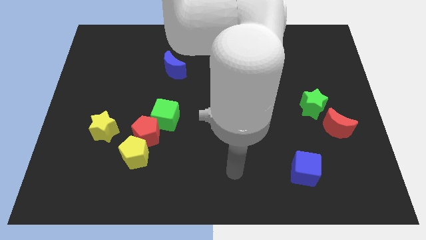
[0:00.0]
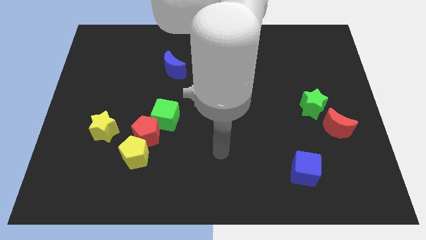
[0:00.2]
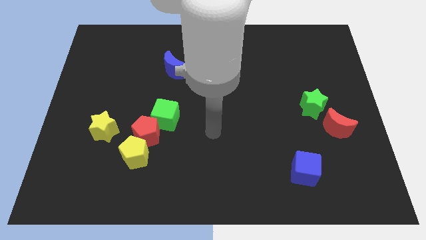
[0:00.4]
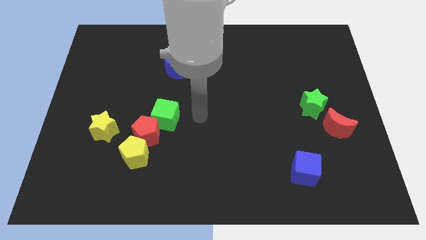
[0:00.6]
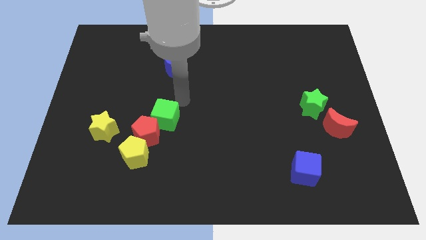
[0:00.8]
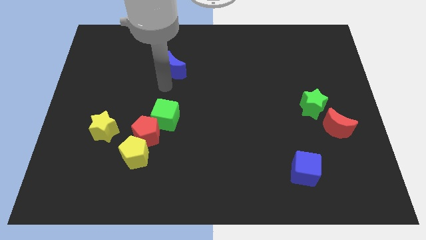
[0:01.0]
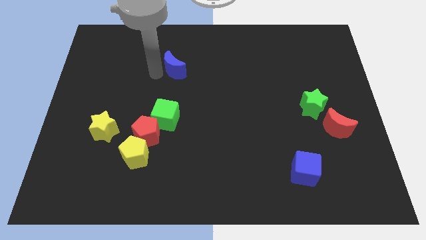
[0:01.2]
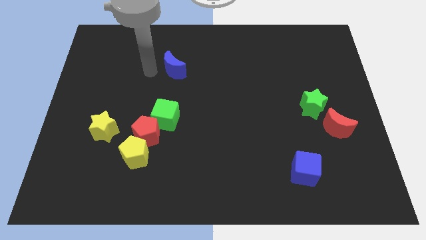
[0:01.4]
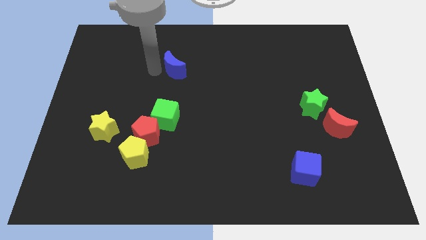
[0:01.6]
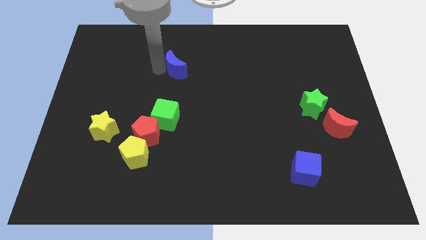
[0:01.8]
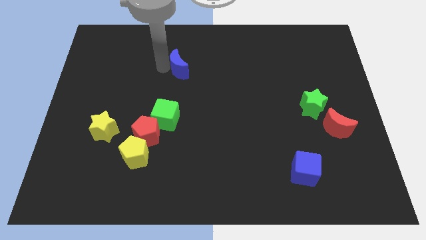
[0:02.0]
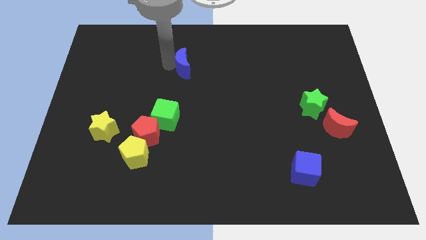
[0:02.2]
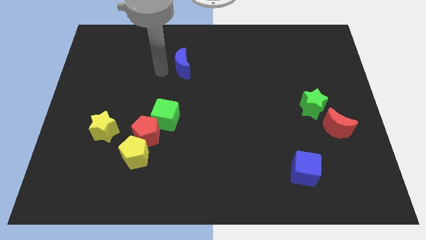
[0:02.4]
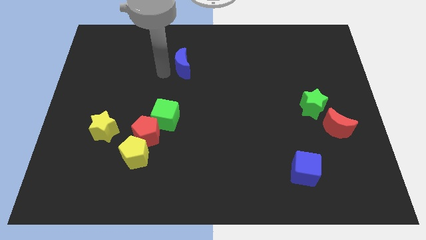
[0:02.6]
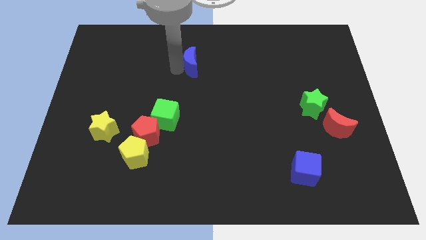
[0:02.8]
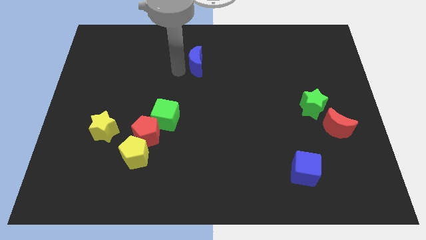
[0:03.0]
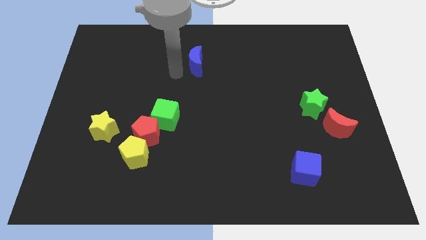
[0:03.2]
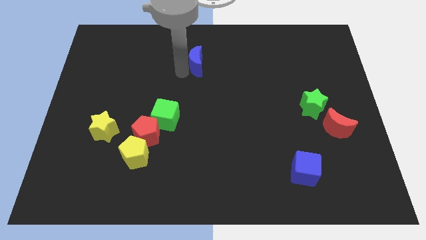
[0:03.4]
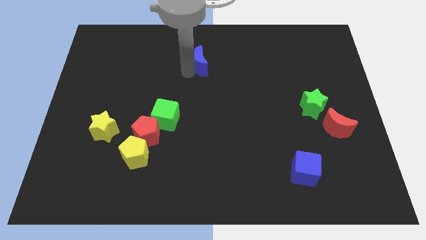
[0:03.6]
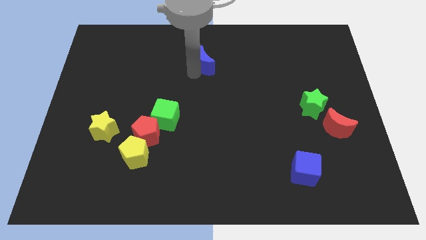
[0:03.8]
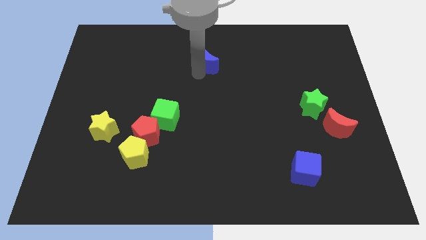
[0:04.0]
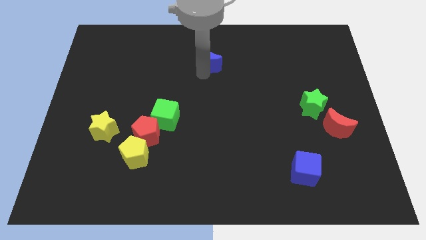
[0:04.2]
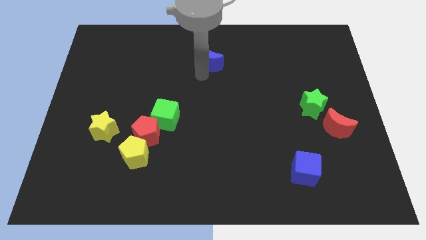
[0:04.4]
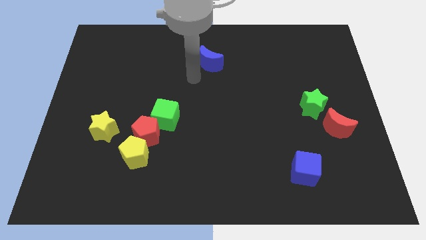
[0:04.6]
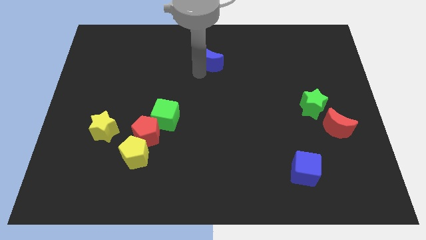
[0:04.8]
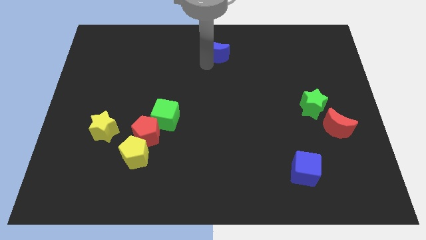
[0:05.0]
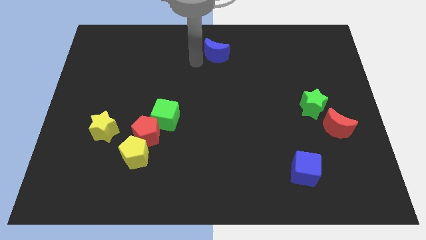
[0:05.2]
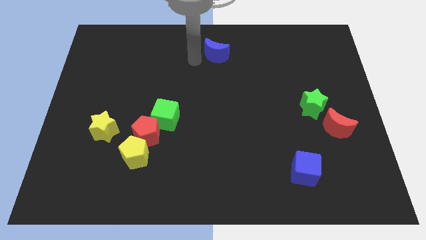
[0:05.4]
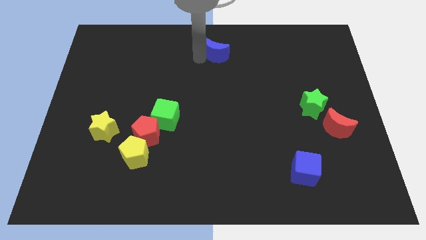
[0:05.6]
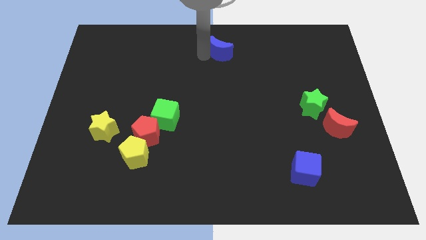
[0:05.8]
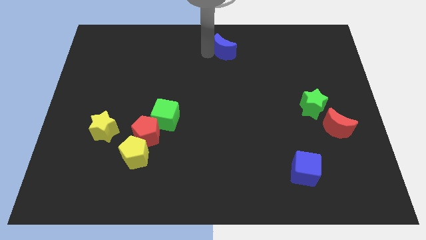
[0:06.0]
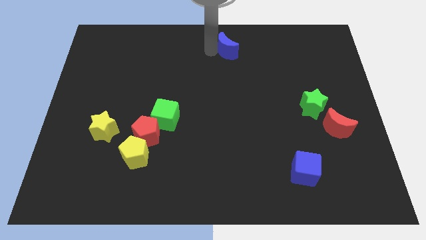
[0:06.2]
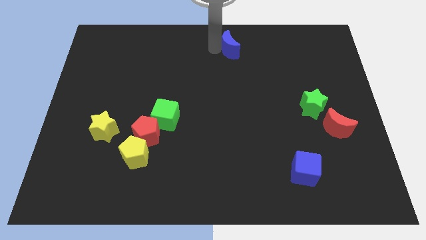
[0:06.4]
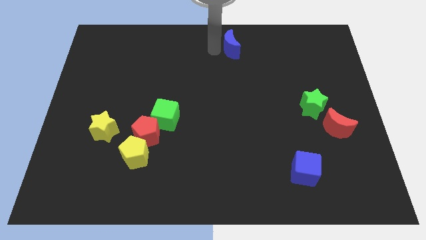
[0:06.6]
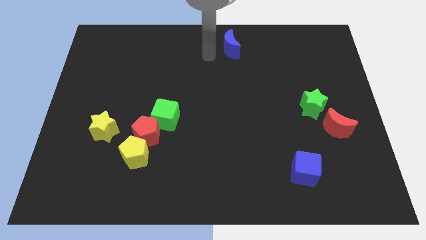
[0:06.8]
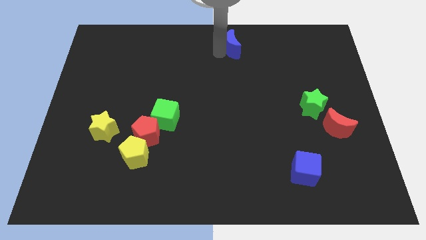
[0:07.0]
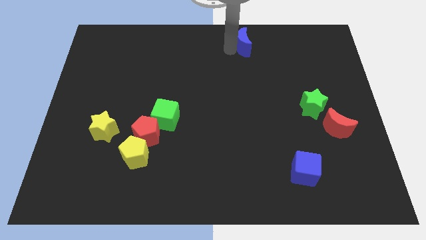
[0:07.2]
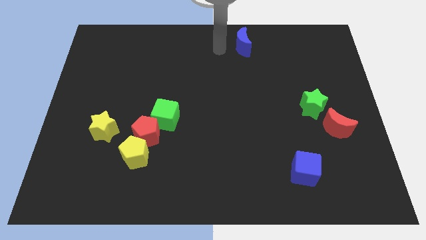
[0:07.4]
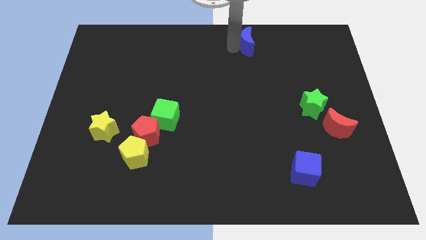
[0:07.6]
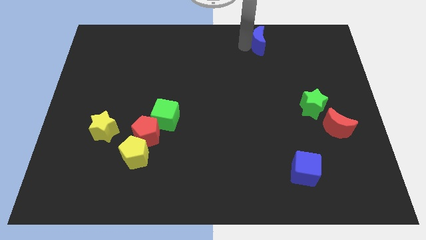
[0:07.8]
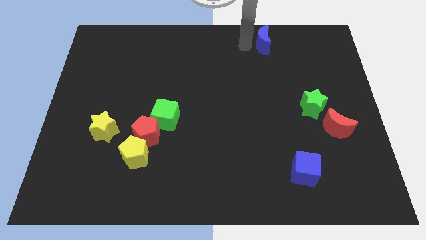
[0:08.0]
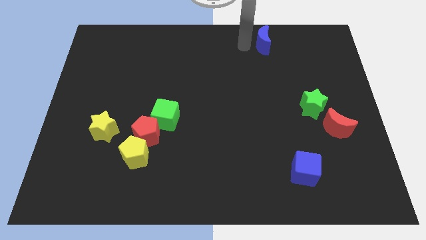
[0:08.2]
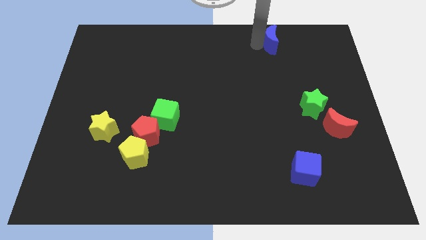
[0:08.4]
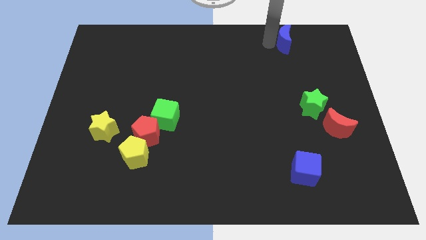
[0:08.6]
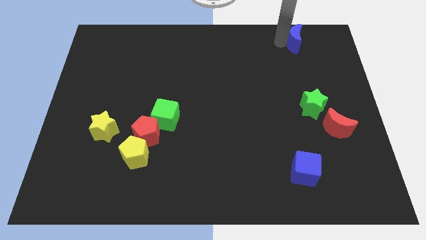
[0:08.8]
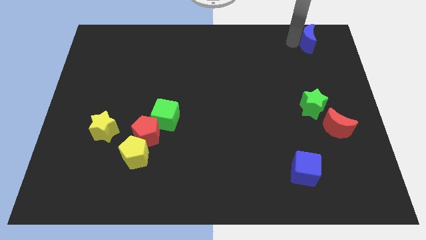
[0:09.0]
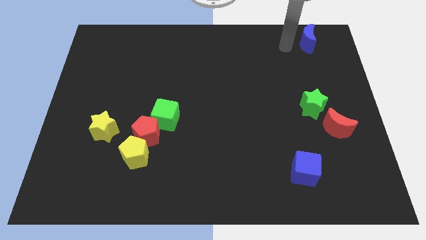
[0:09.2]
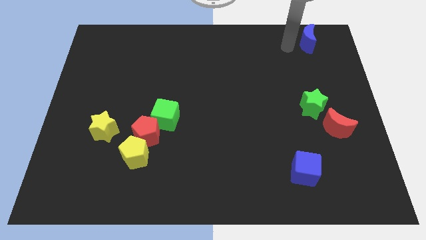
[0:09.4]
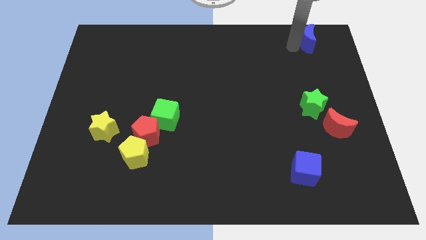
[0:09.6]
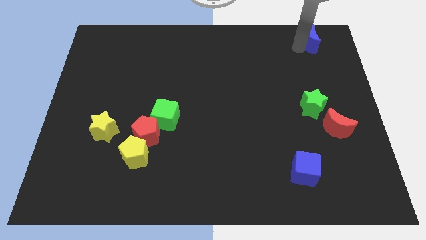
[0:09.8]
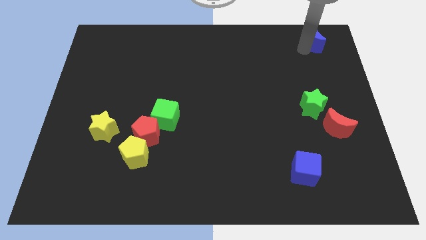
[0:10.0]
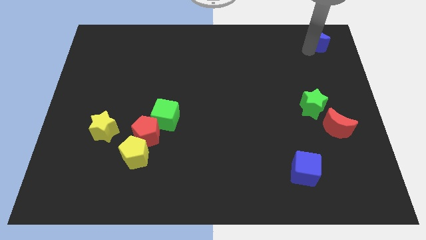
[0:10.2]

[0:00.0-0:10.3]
push the blue moon to the upper right corner

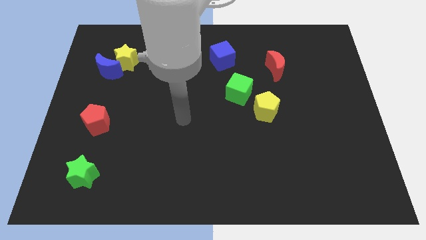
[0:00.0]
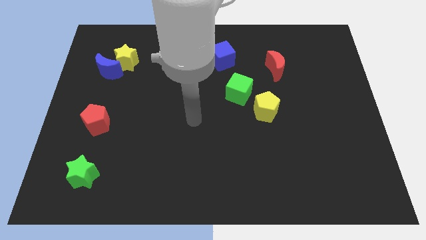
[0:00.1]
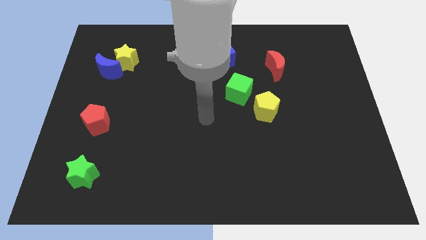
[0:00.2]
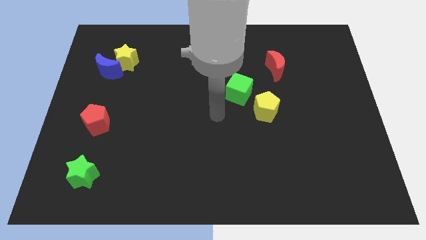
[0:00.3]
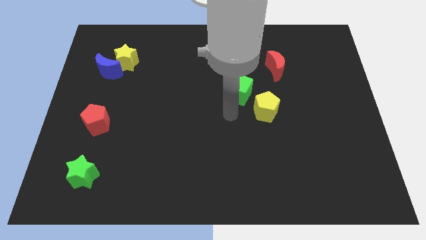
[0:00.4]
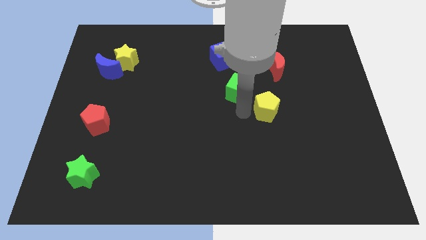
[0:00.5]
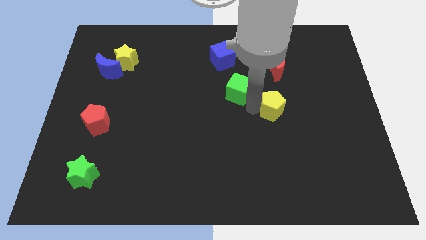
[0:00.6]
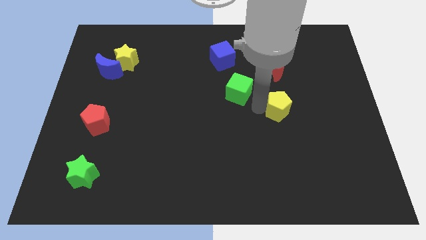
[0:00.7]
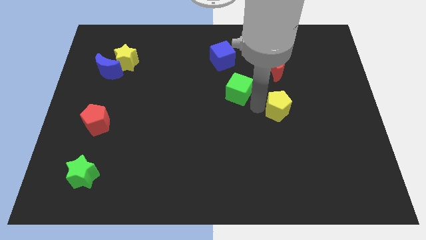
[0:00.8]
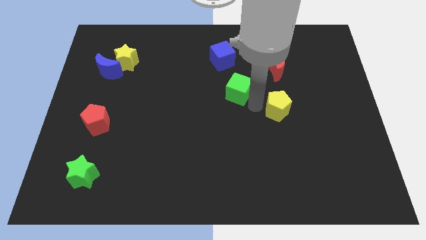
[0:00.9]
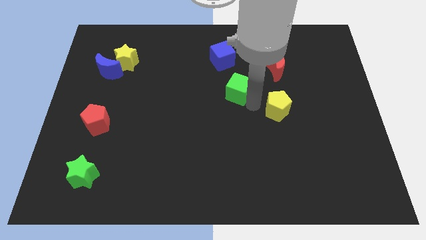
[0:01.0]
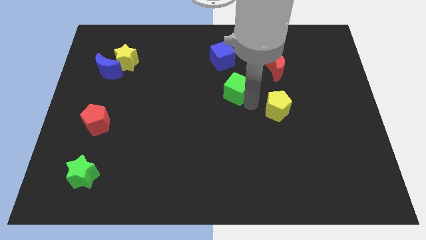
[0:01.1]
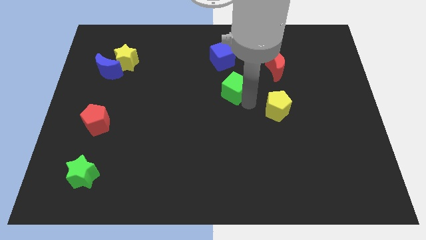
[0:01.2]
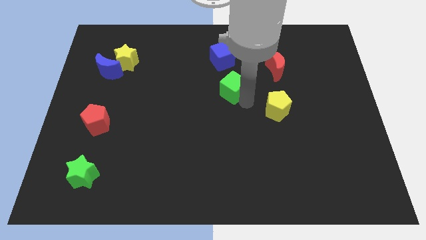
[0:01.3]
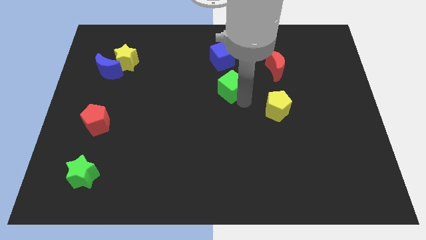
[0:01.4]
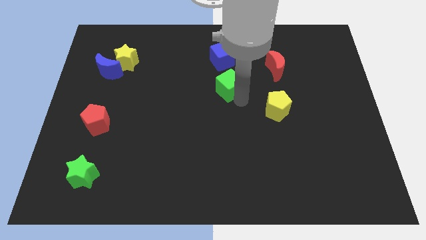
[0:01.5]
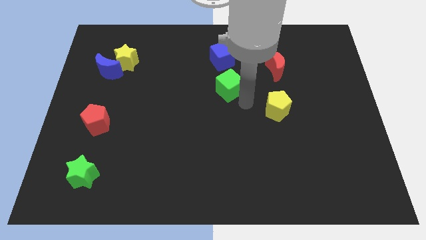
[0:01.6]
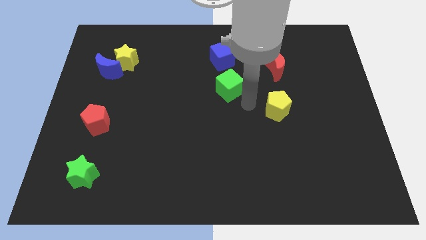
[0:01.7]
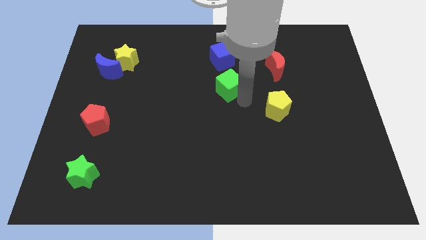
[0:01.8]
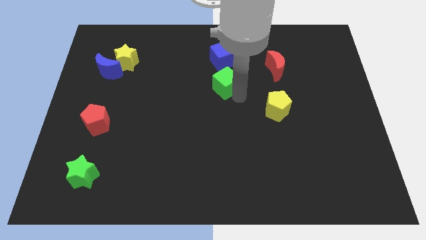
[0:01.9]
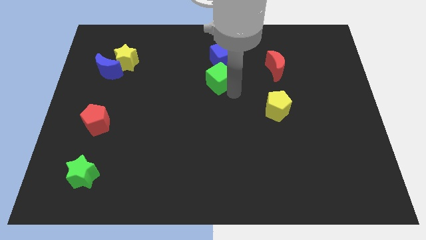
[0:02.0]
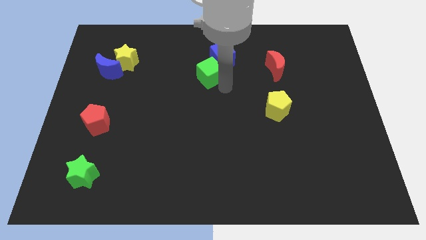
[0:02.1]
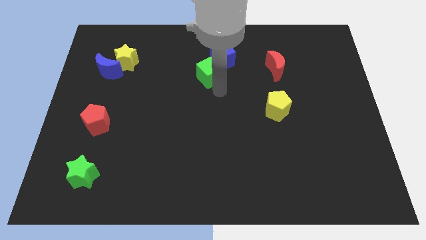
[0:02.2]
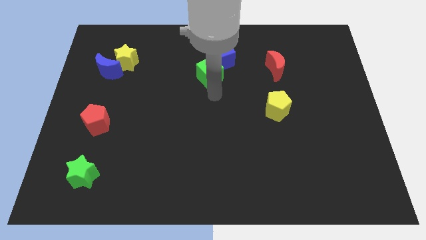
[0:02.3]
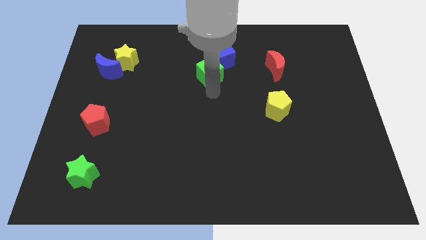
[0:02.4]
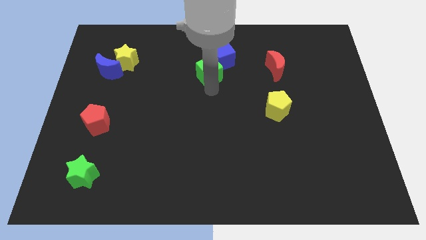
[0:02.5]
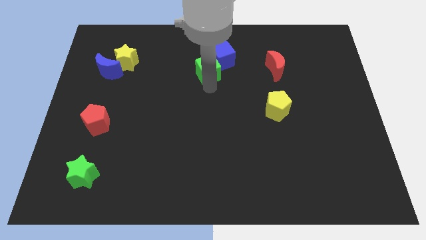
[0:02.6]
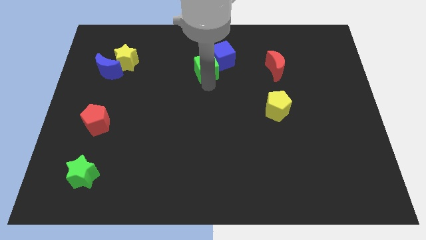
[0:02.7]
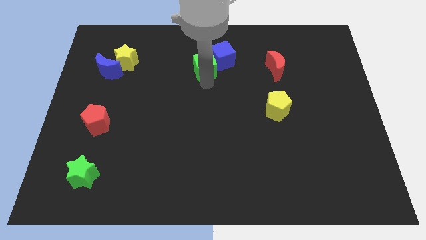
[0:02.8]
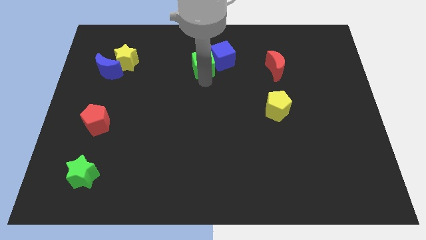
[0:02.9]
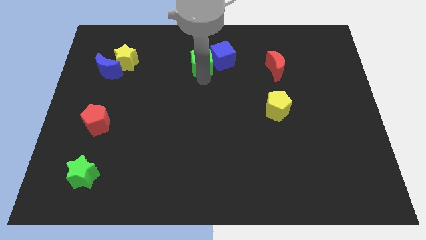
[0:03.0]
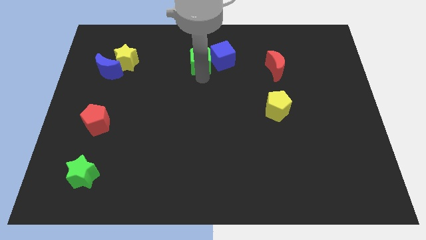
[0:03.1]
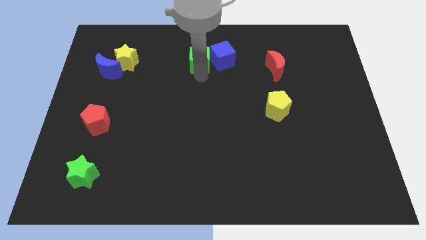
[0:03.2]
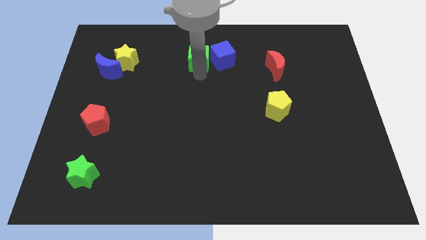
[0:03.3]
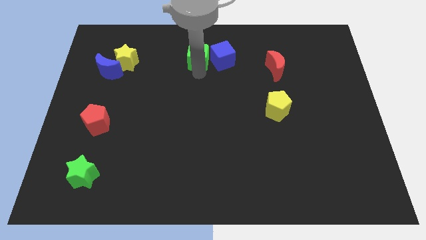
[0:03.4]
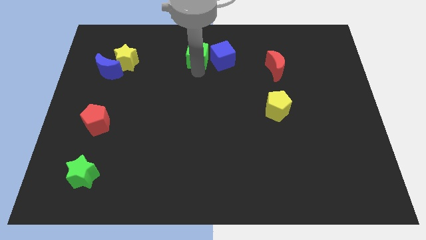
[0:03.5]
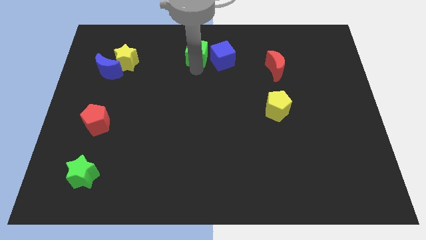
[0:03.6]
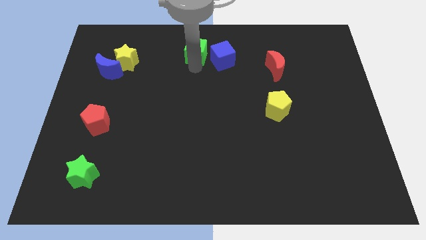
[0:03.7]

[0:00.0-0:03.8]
slide the green cube to the top
